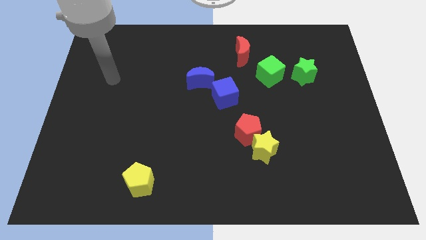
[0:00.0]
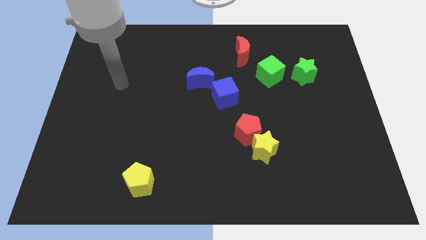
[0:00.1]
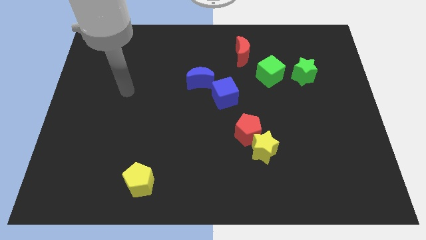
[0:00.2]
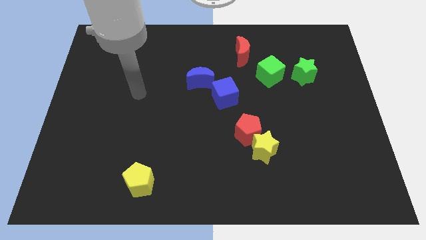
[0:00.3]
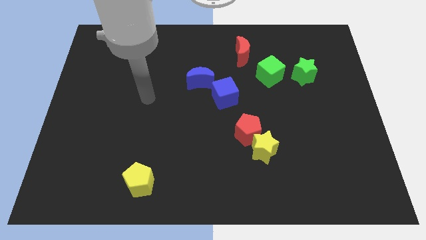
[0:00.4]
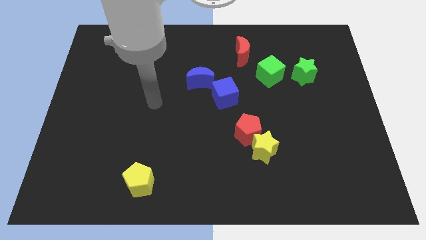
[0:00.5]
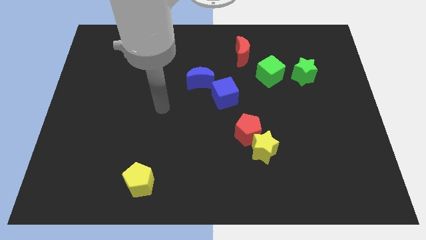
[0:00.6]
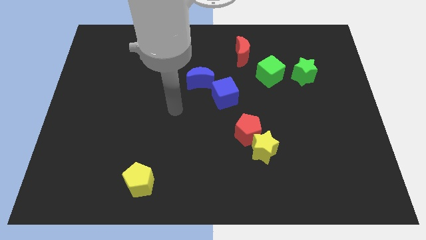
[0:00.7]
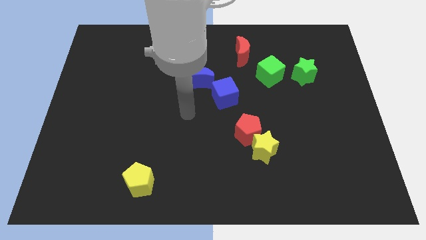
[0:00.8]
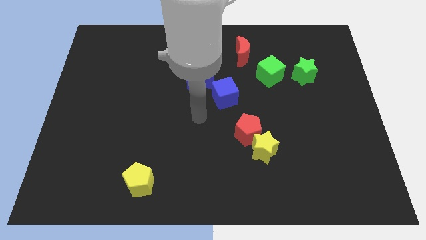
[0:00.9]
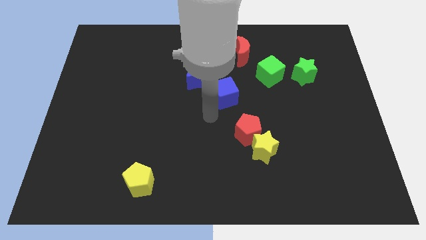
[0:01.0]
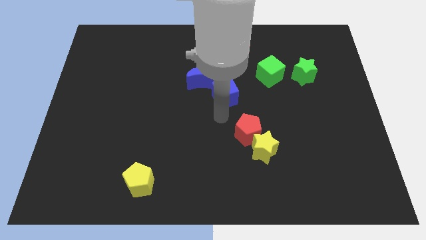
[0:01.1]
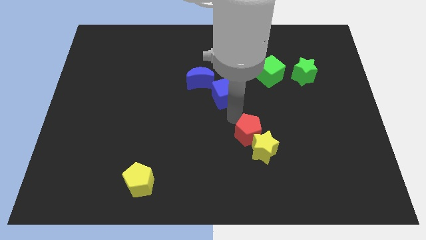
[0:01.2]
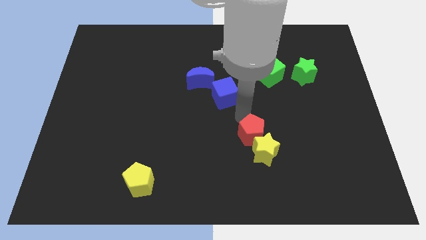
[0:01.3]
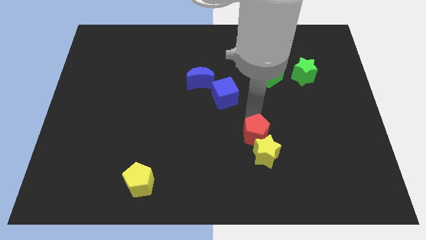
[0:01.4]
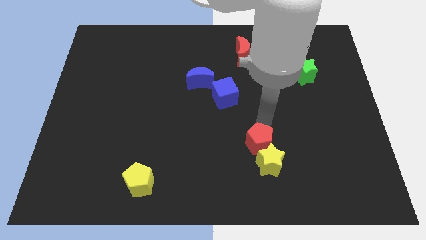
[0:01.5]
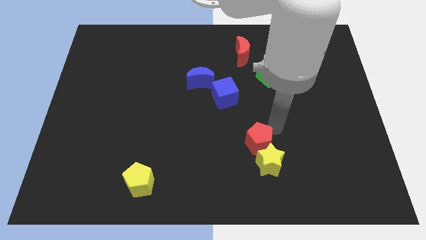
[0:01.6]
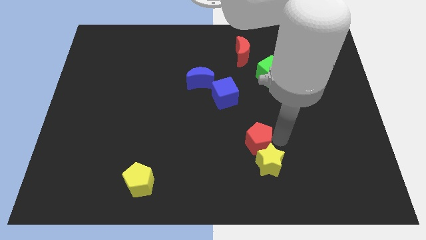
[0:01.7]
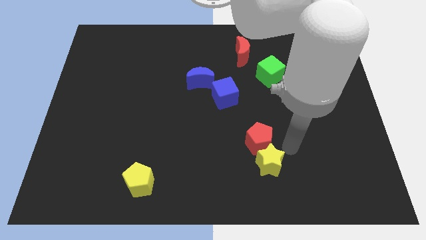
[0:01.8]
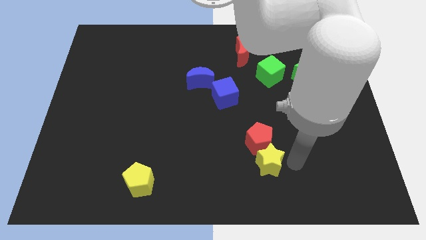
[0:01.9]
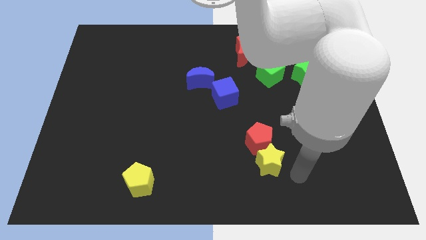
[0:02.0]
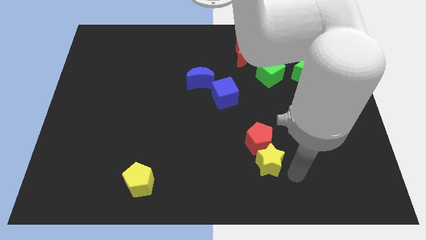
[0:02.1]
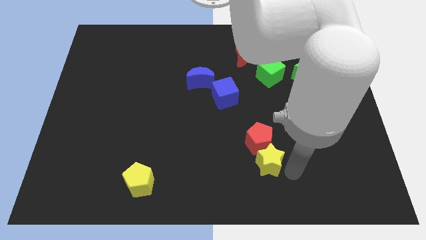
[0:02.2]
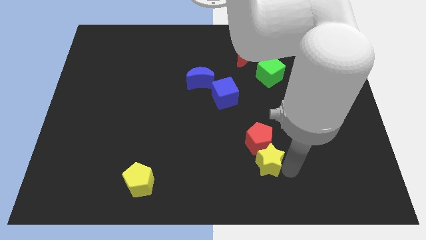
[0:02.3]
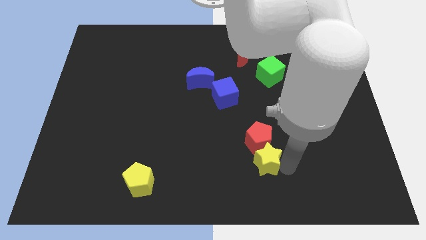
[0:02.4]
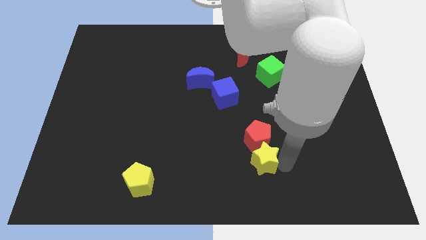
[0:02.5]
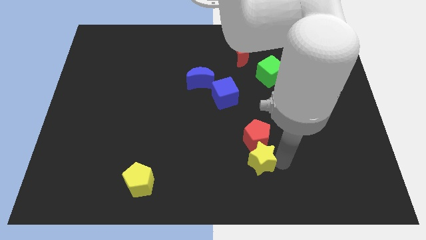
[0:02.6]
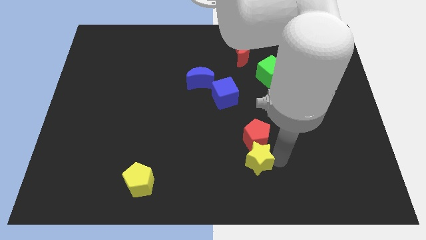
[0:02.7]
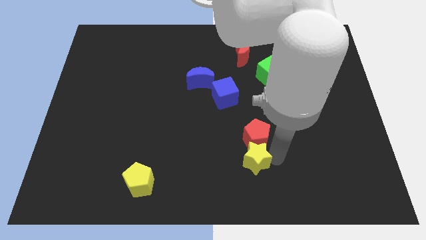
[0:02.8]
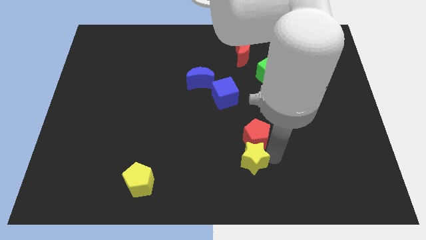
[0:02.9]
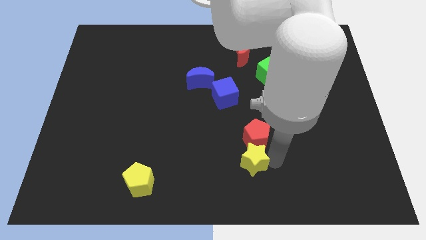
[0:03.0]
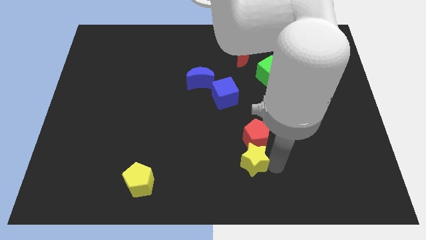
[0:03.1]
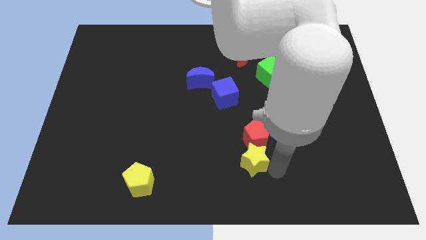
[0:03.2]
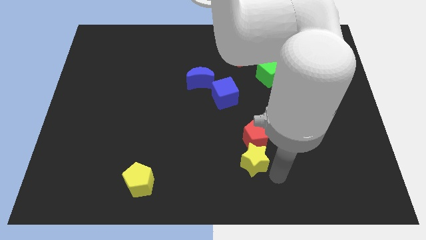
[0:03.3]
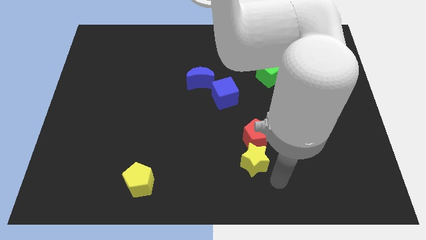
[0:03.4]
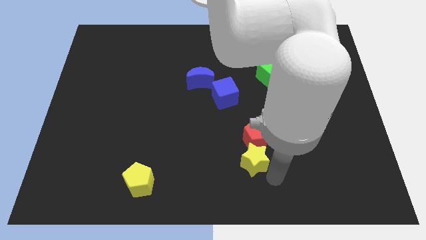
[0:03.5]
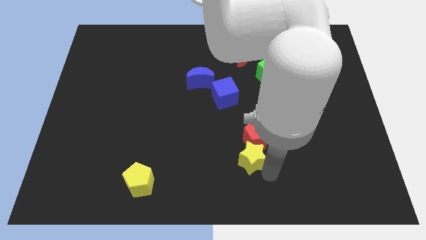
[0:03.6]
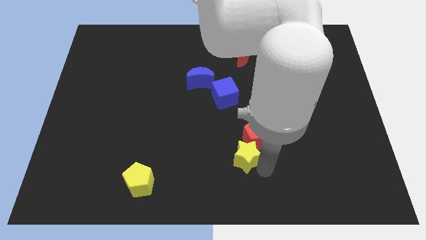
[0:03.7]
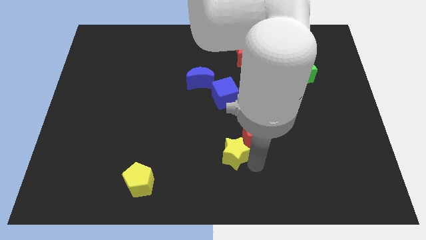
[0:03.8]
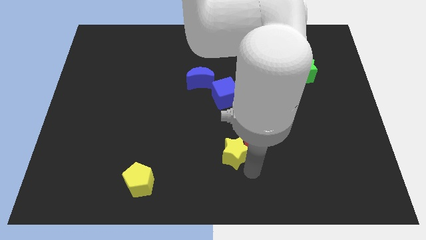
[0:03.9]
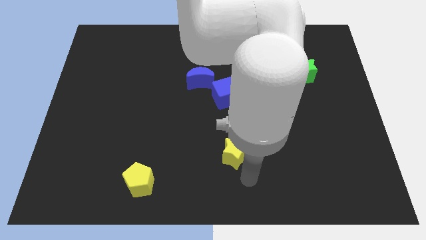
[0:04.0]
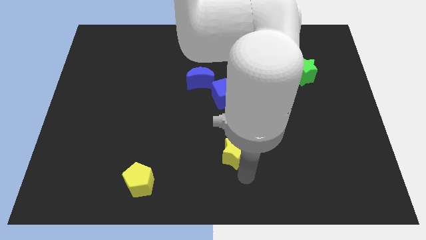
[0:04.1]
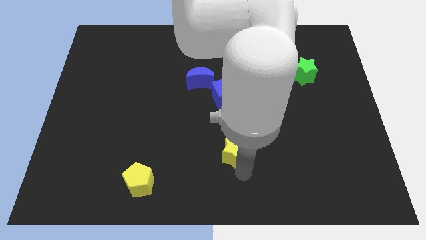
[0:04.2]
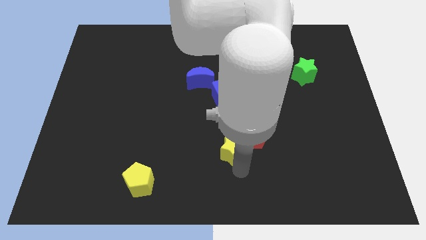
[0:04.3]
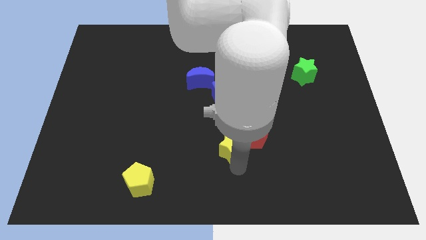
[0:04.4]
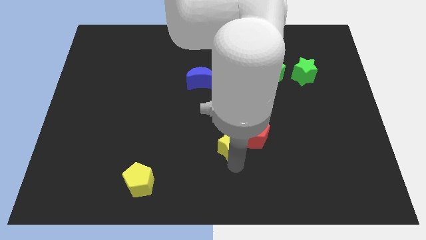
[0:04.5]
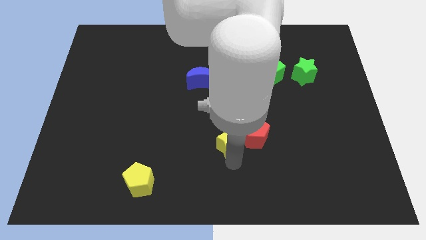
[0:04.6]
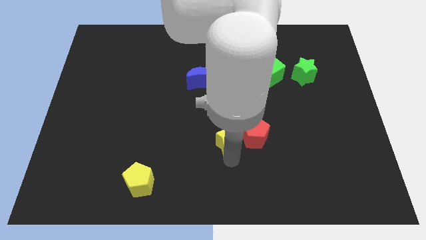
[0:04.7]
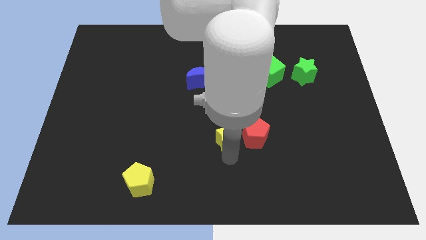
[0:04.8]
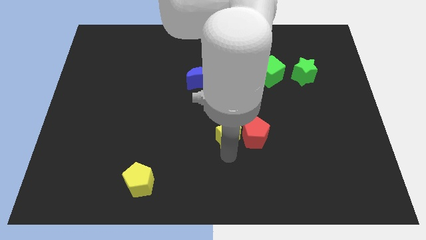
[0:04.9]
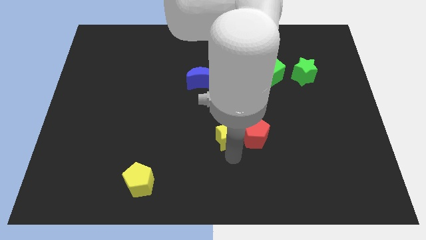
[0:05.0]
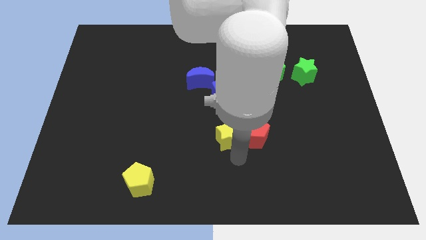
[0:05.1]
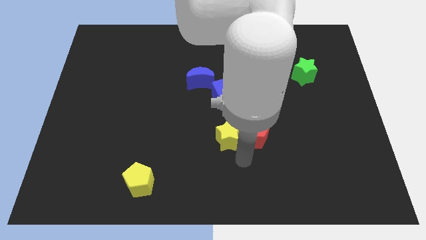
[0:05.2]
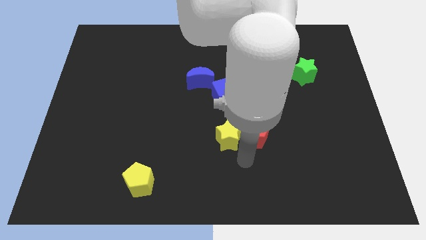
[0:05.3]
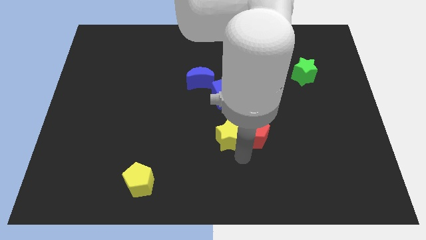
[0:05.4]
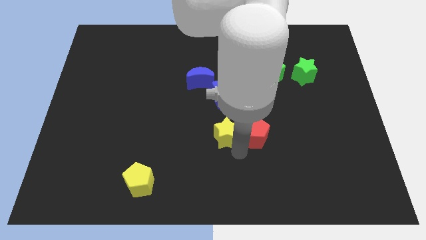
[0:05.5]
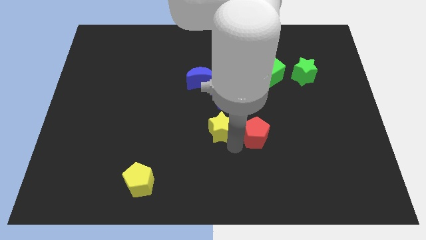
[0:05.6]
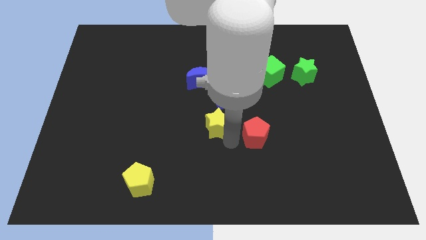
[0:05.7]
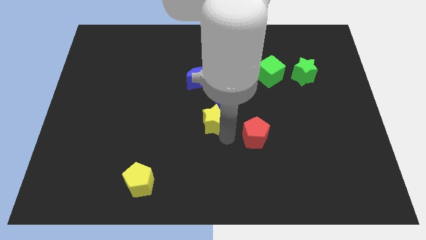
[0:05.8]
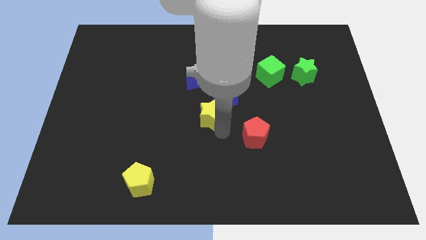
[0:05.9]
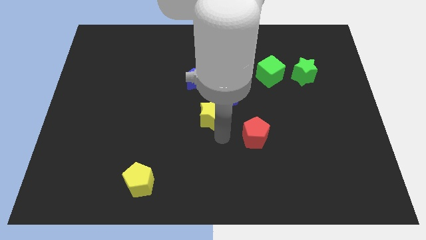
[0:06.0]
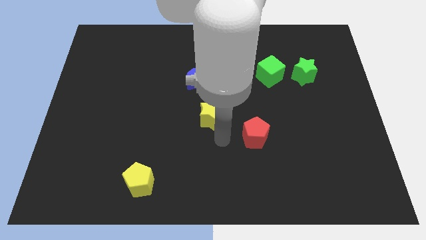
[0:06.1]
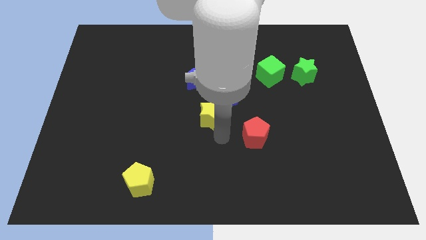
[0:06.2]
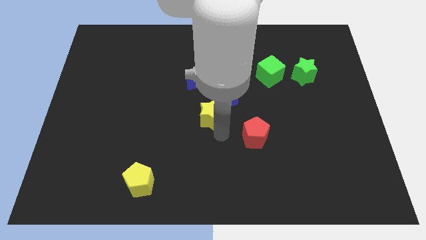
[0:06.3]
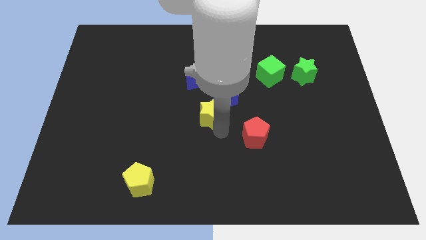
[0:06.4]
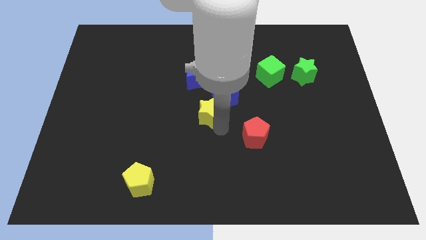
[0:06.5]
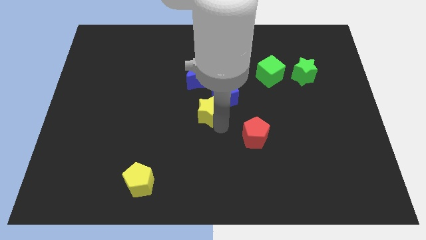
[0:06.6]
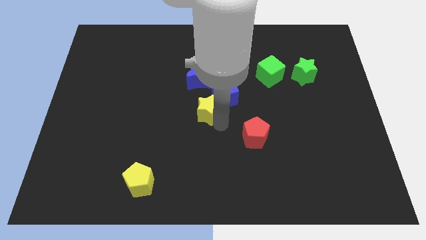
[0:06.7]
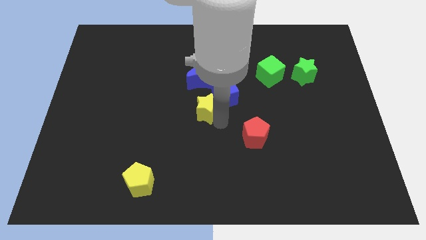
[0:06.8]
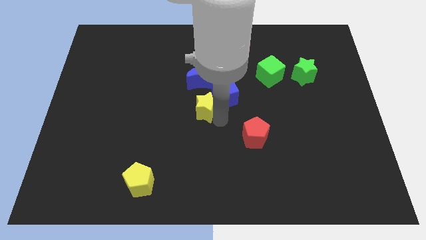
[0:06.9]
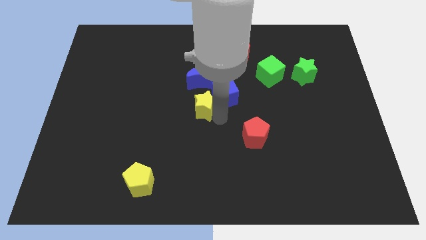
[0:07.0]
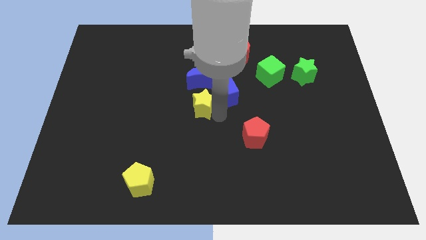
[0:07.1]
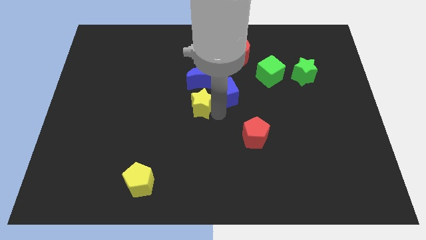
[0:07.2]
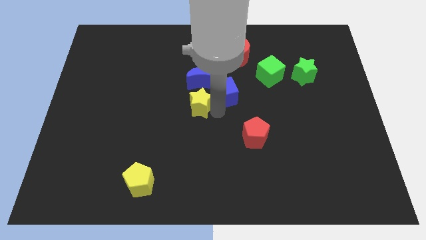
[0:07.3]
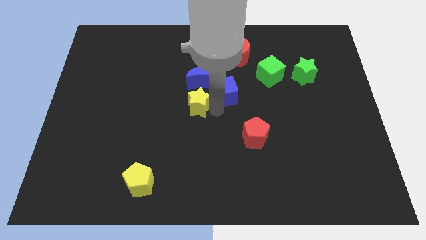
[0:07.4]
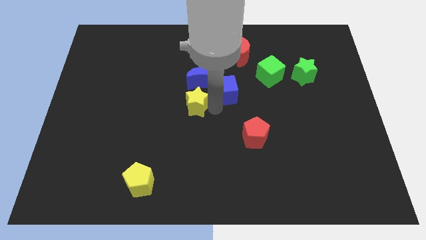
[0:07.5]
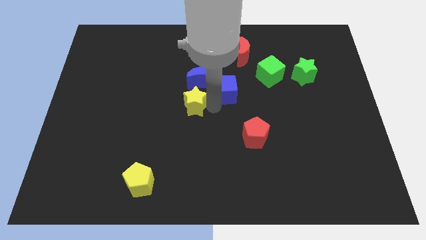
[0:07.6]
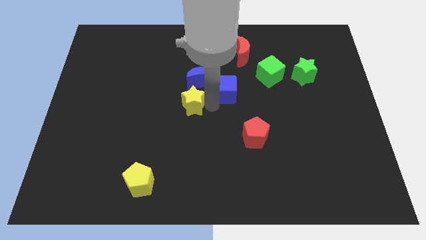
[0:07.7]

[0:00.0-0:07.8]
push the yellow star up and then left

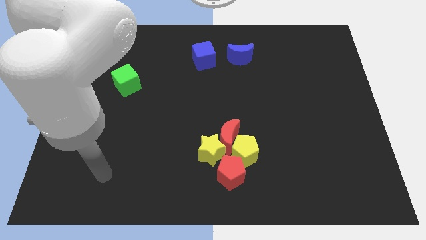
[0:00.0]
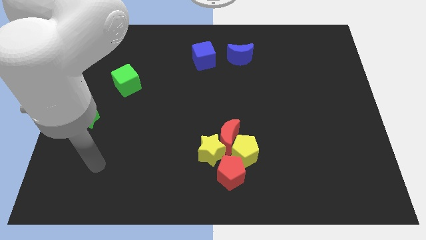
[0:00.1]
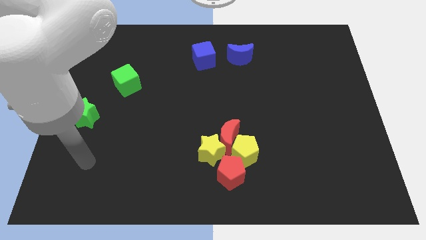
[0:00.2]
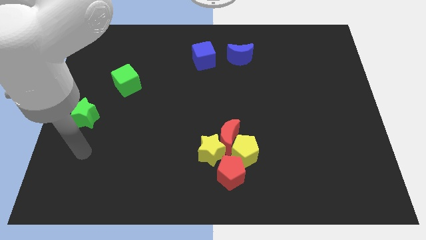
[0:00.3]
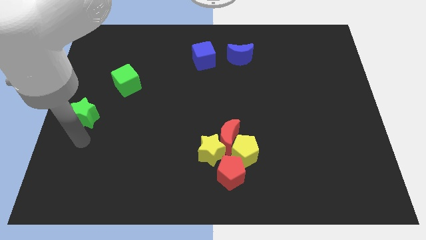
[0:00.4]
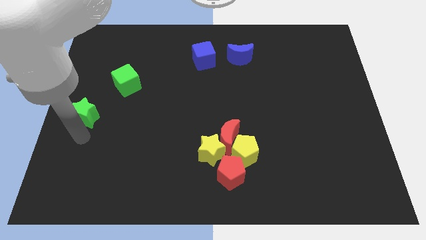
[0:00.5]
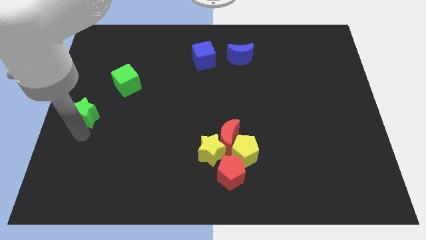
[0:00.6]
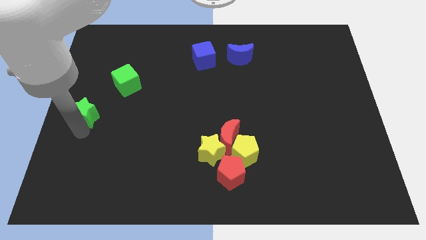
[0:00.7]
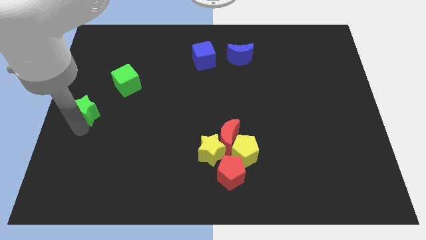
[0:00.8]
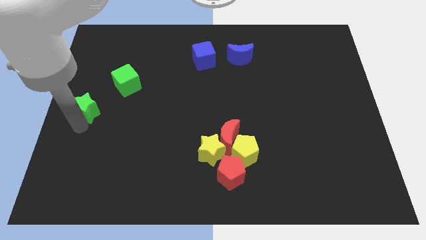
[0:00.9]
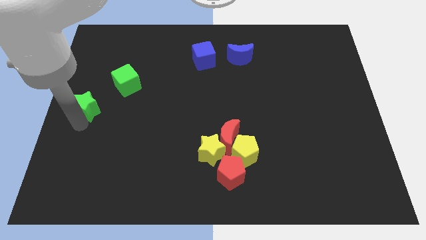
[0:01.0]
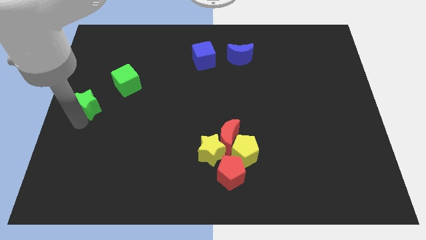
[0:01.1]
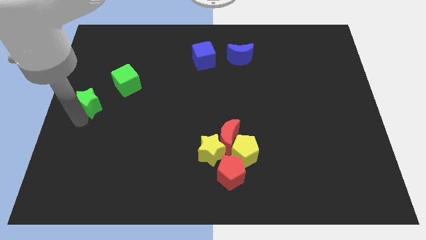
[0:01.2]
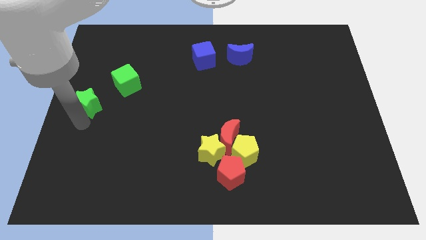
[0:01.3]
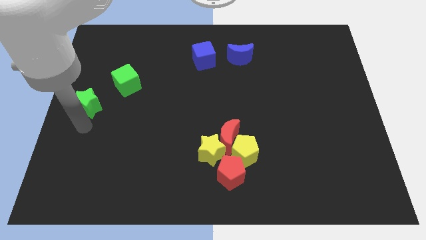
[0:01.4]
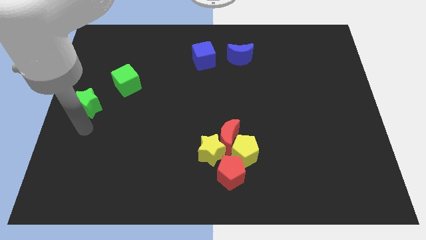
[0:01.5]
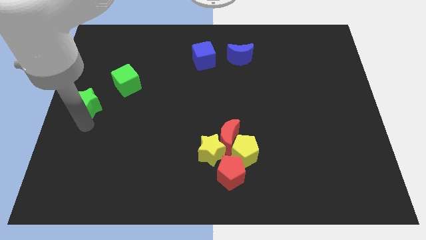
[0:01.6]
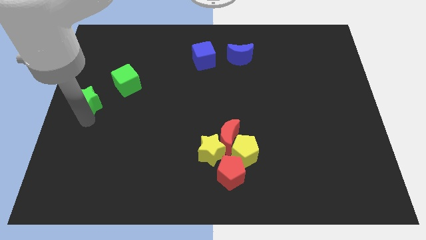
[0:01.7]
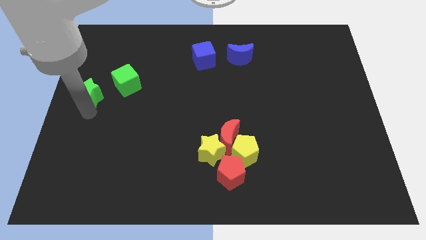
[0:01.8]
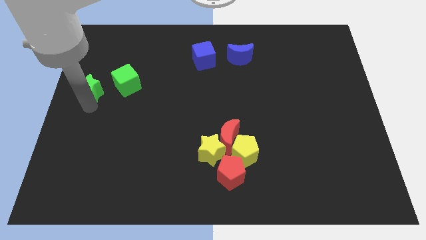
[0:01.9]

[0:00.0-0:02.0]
slightly slide the green star upwards
